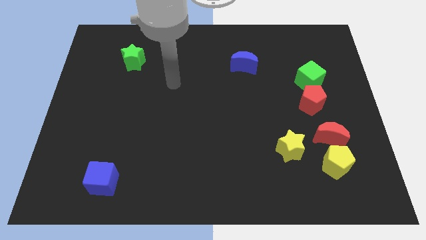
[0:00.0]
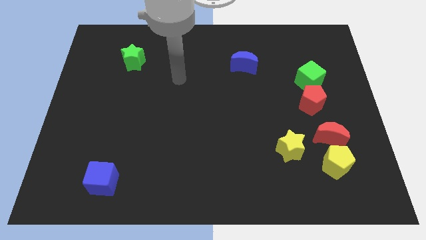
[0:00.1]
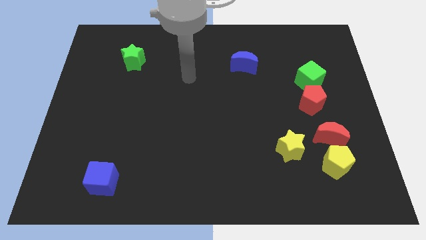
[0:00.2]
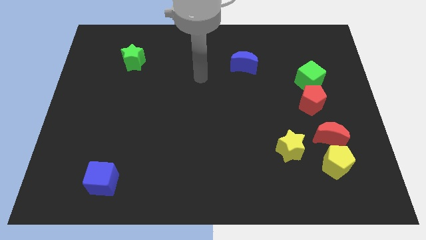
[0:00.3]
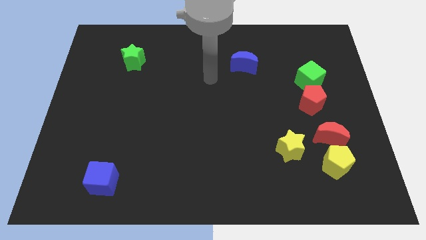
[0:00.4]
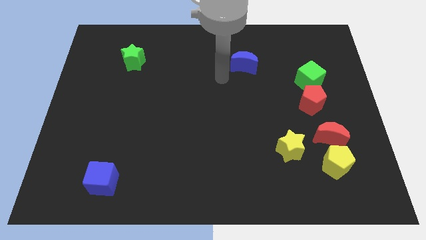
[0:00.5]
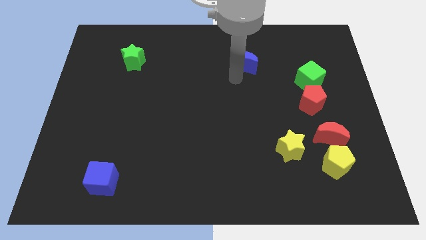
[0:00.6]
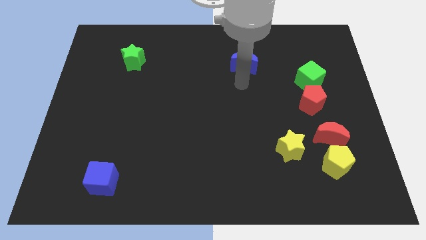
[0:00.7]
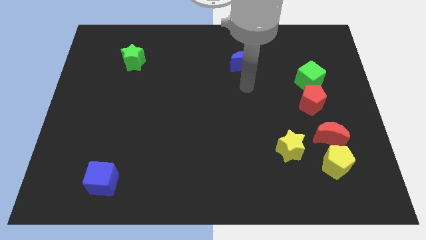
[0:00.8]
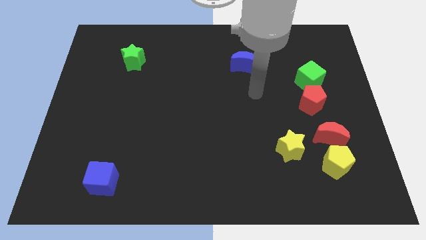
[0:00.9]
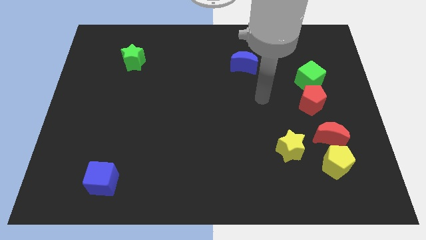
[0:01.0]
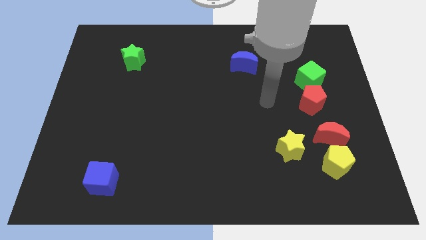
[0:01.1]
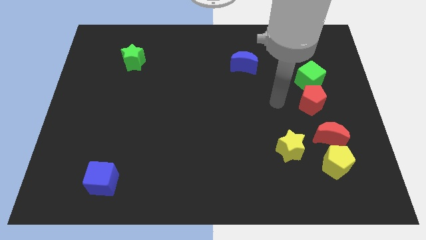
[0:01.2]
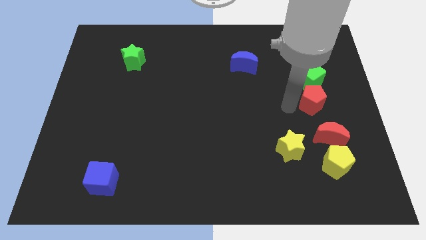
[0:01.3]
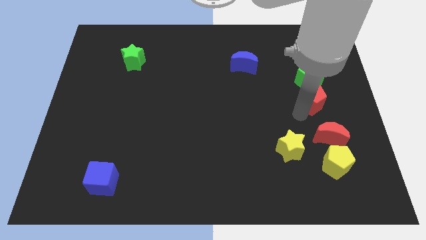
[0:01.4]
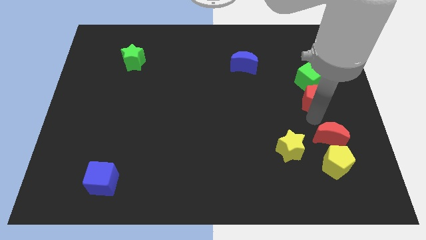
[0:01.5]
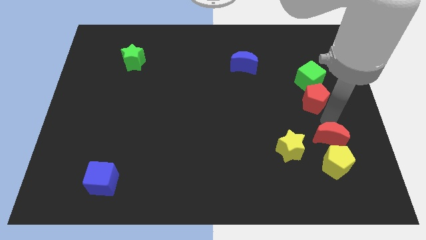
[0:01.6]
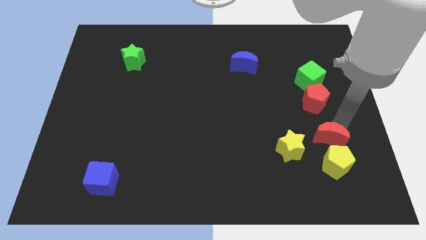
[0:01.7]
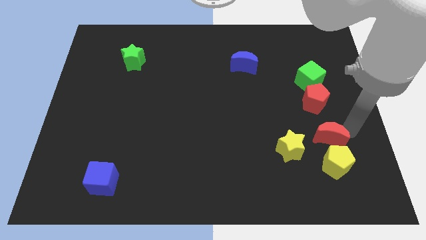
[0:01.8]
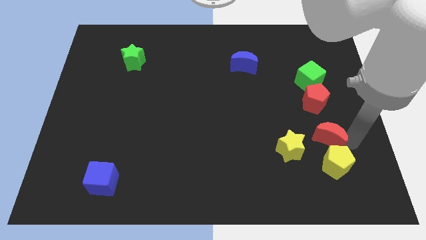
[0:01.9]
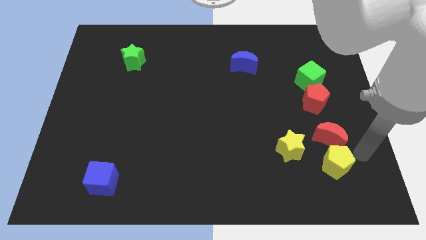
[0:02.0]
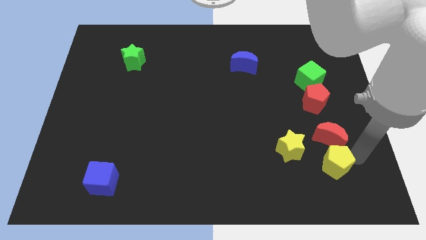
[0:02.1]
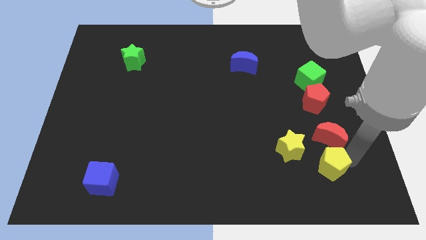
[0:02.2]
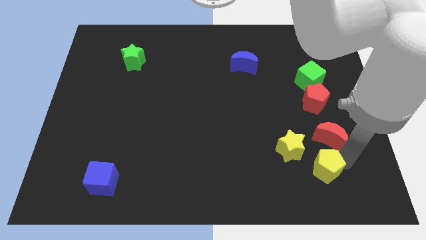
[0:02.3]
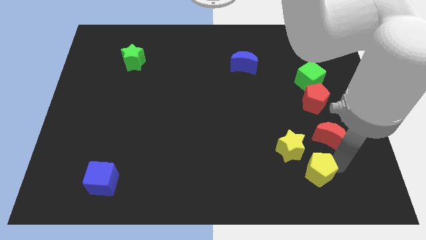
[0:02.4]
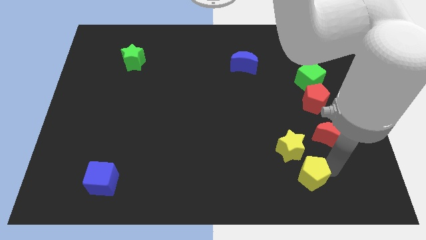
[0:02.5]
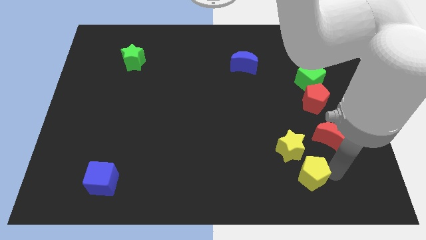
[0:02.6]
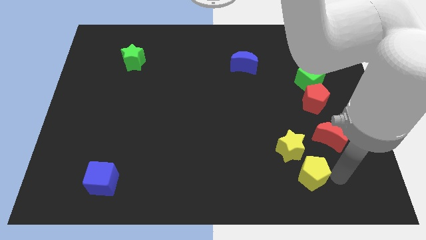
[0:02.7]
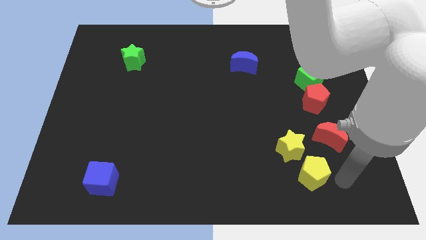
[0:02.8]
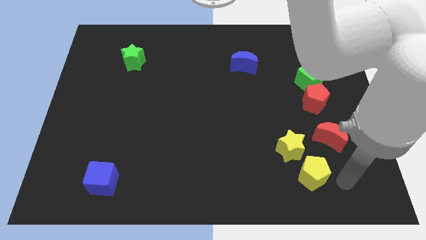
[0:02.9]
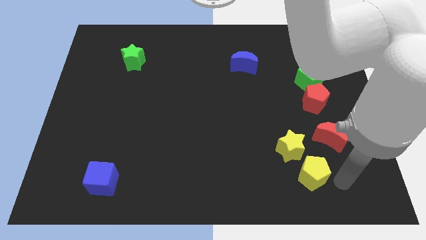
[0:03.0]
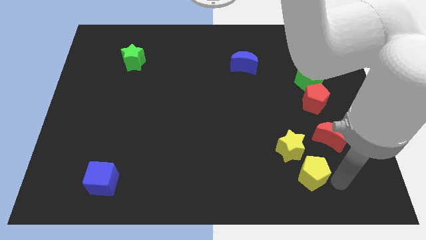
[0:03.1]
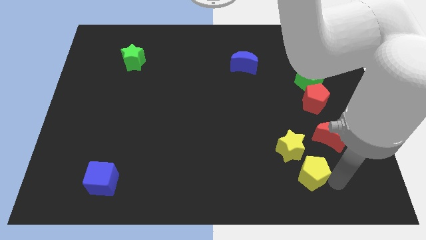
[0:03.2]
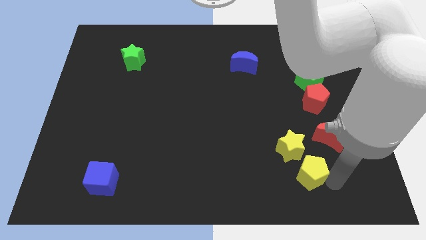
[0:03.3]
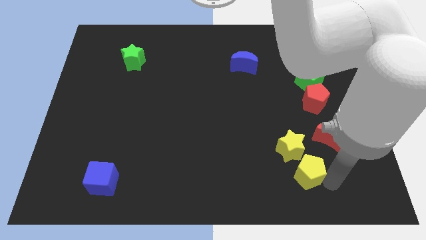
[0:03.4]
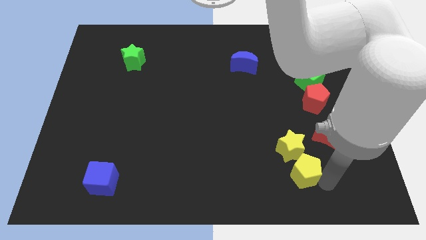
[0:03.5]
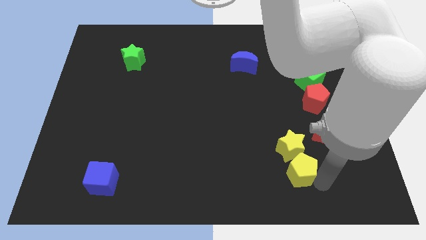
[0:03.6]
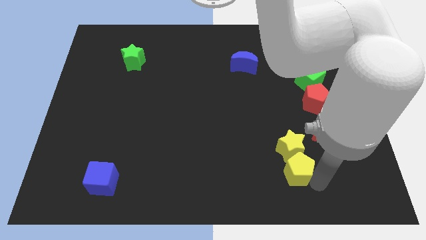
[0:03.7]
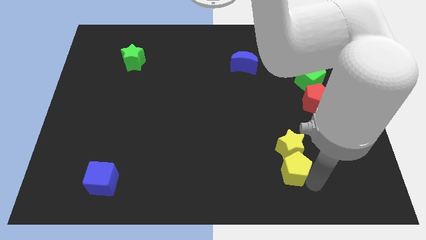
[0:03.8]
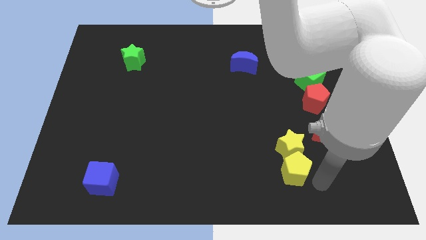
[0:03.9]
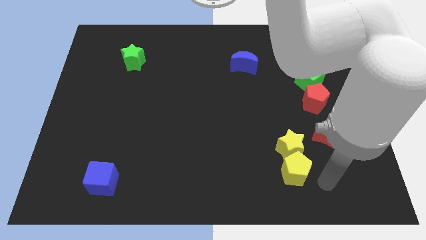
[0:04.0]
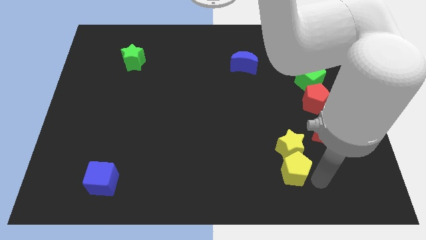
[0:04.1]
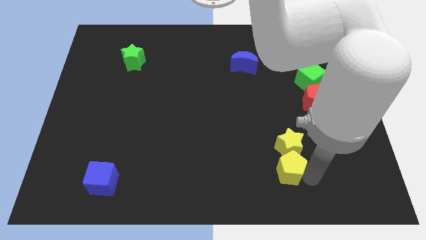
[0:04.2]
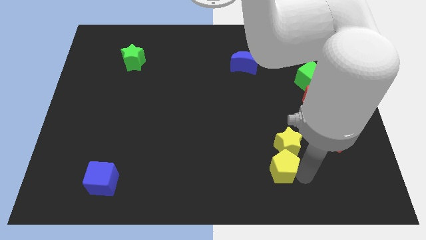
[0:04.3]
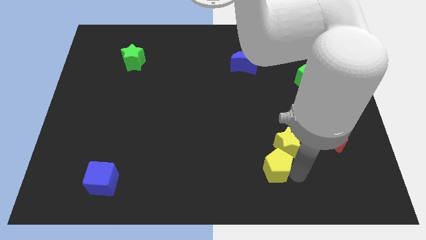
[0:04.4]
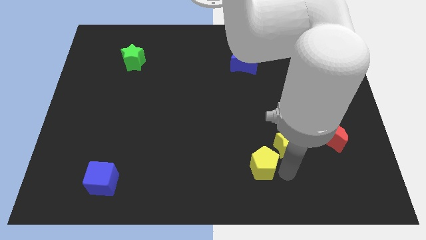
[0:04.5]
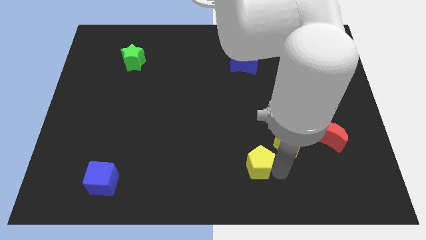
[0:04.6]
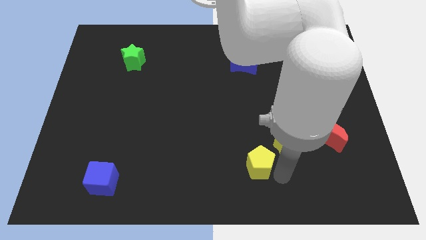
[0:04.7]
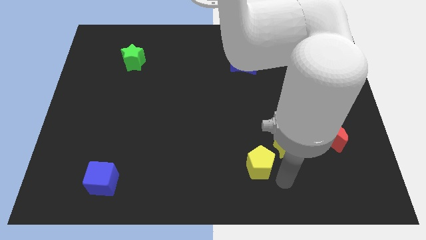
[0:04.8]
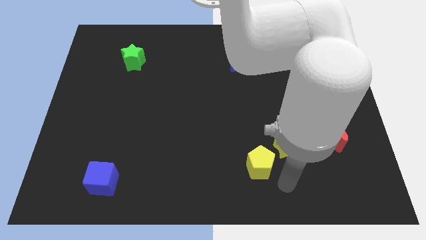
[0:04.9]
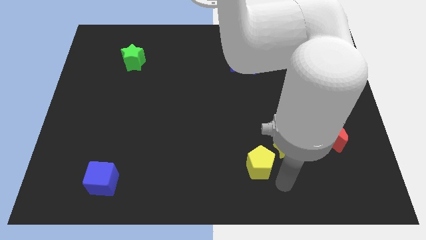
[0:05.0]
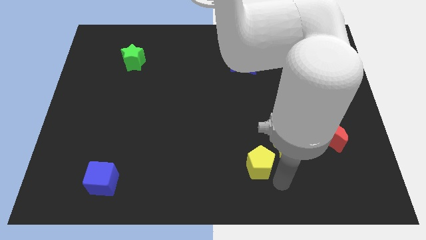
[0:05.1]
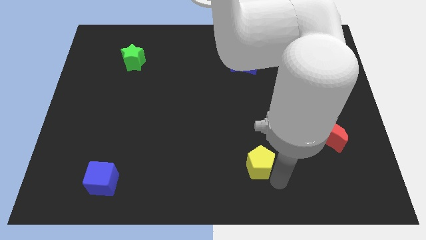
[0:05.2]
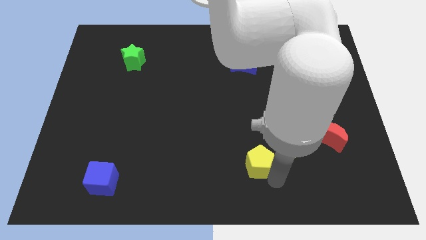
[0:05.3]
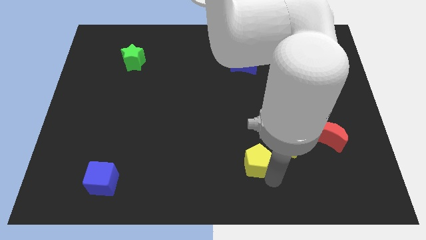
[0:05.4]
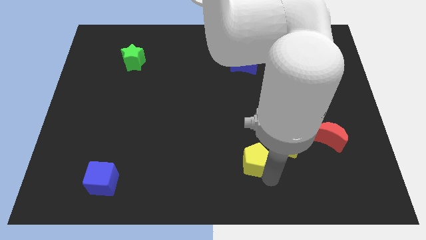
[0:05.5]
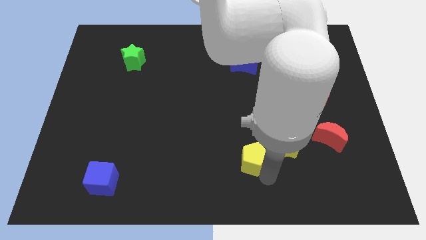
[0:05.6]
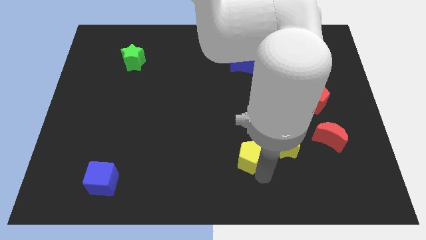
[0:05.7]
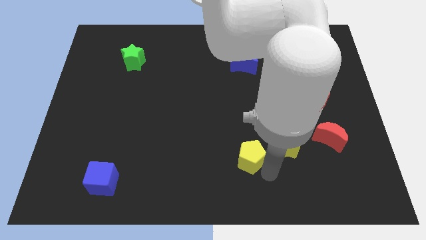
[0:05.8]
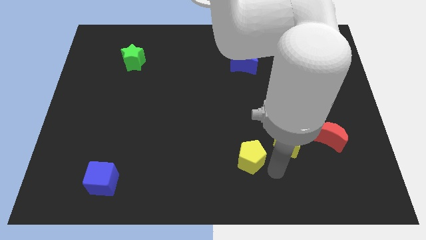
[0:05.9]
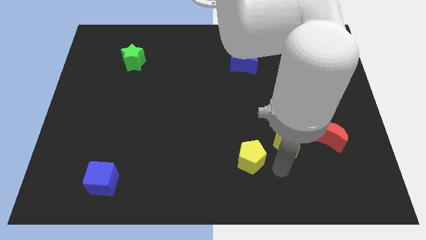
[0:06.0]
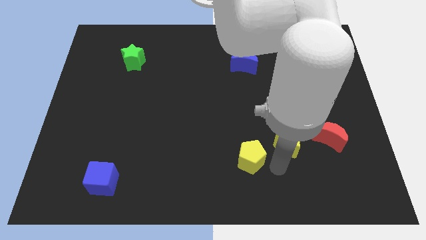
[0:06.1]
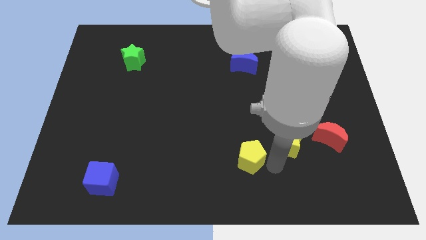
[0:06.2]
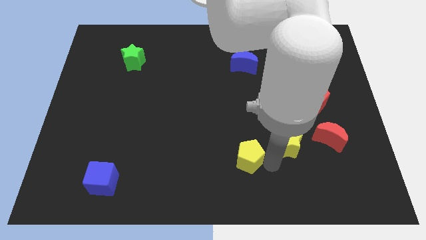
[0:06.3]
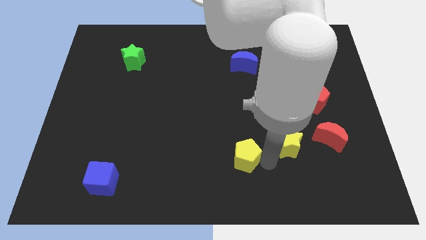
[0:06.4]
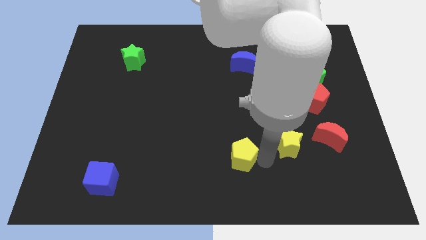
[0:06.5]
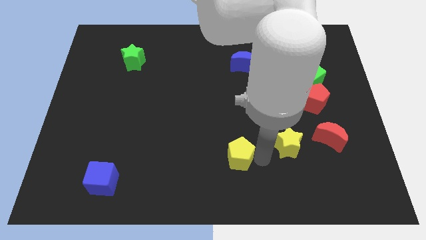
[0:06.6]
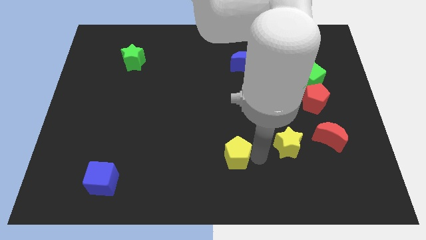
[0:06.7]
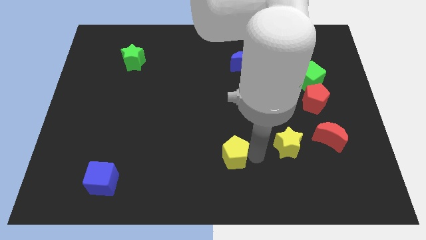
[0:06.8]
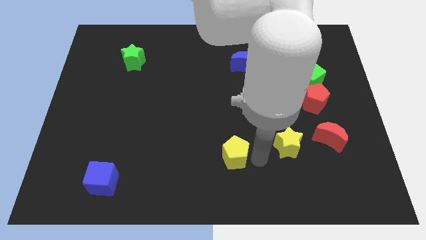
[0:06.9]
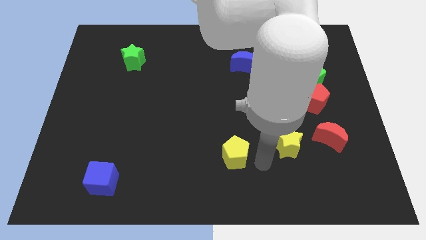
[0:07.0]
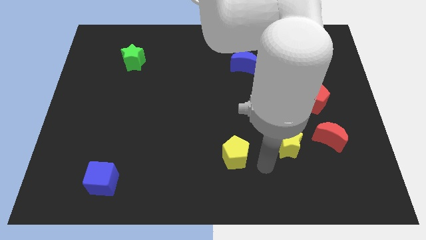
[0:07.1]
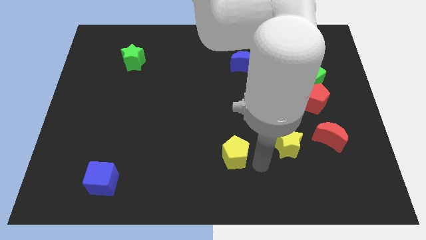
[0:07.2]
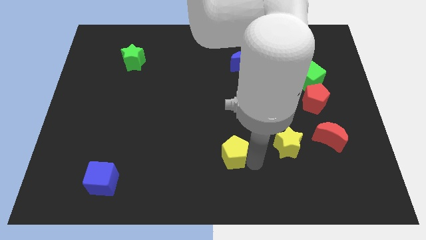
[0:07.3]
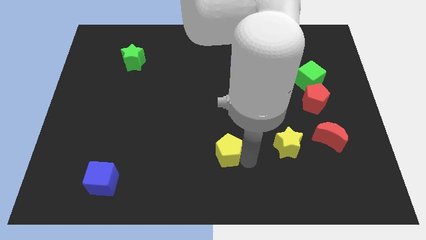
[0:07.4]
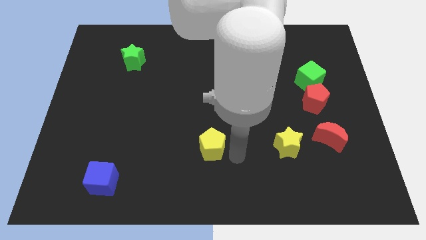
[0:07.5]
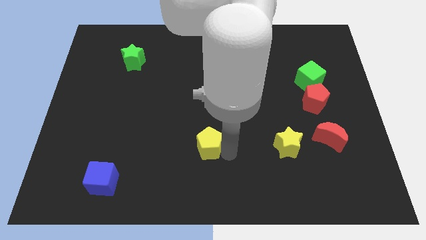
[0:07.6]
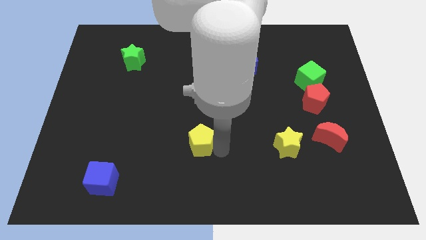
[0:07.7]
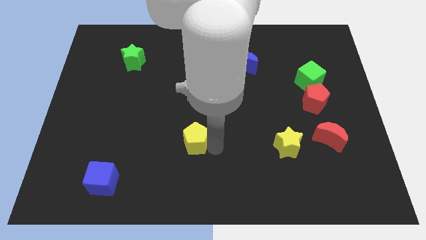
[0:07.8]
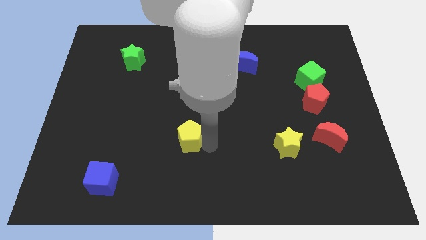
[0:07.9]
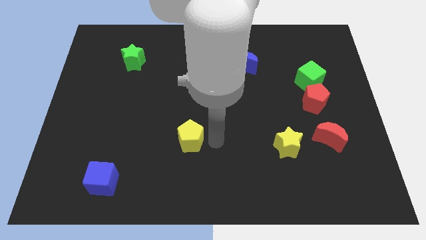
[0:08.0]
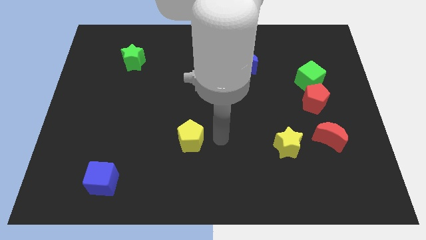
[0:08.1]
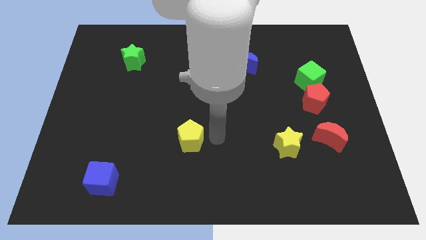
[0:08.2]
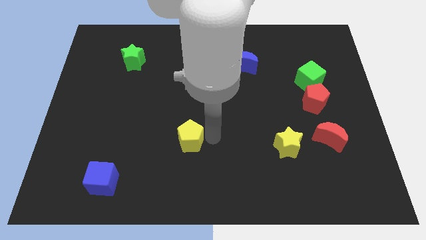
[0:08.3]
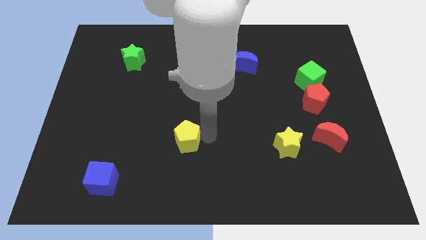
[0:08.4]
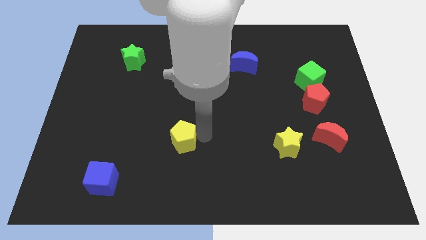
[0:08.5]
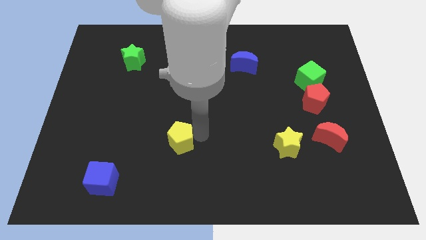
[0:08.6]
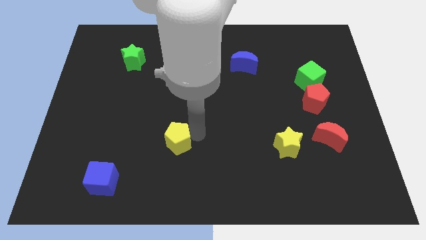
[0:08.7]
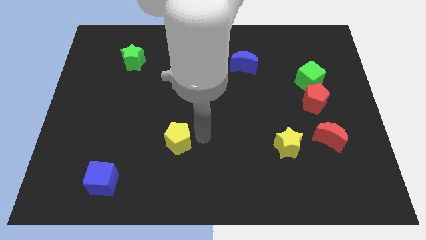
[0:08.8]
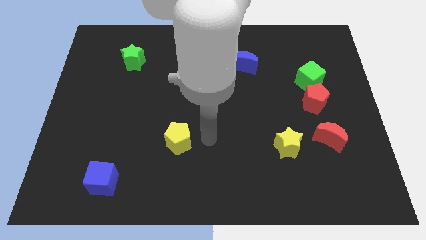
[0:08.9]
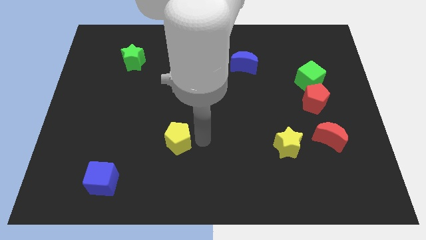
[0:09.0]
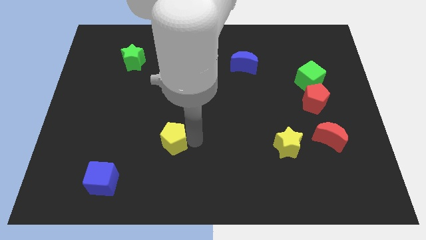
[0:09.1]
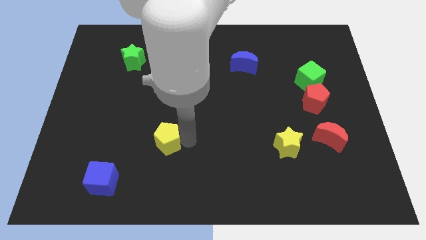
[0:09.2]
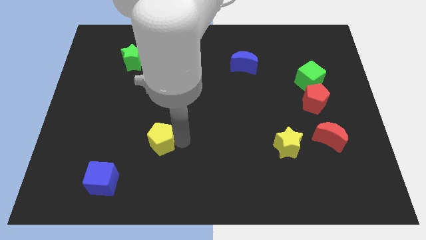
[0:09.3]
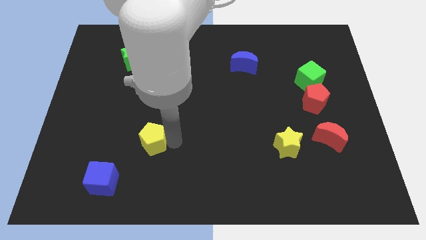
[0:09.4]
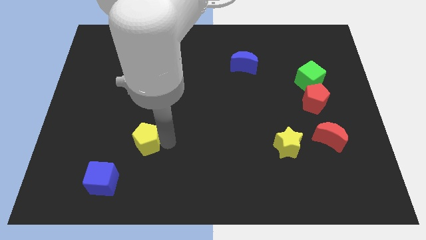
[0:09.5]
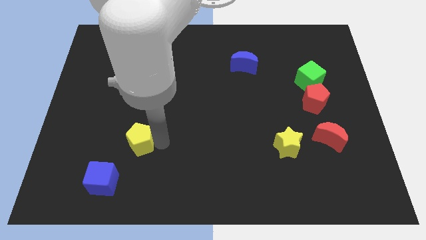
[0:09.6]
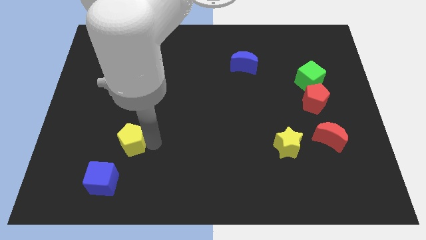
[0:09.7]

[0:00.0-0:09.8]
move the yellow pentagon to the top side of the blue cube
